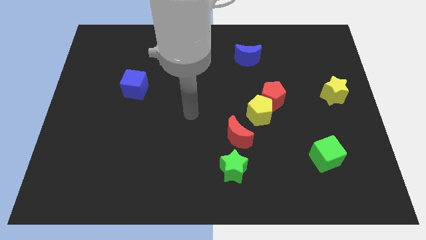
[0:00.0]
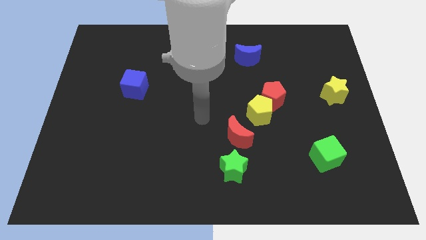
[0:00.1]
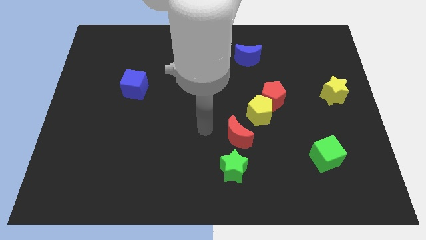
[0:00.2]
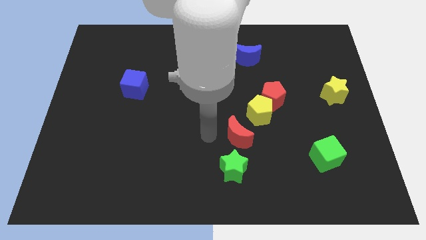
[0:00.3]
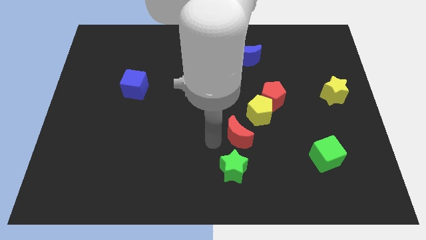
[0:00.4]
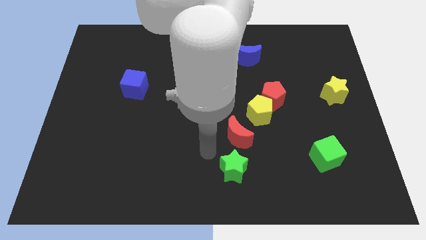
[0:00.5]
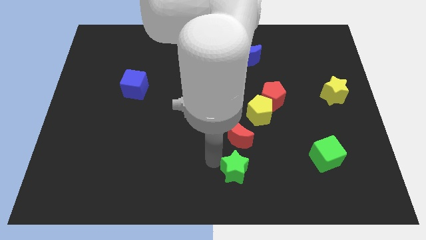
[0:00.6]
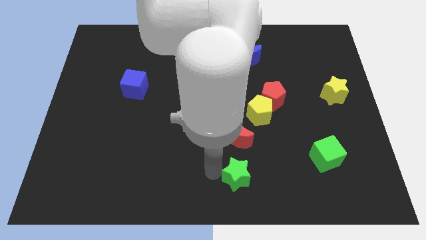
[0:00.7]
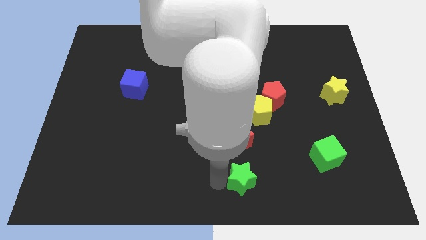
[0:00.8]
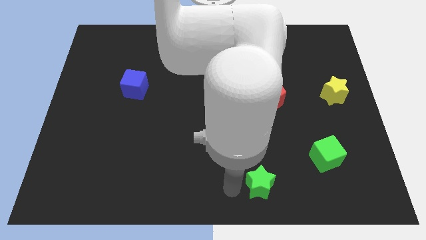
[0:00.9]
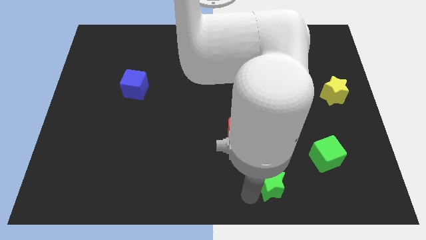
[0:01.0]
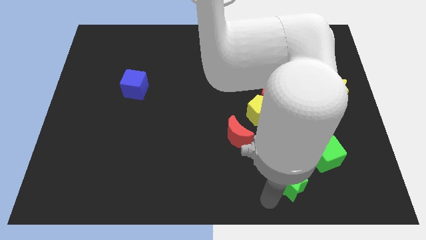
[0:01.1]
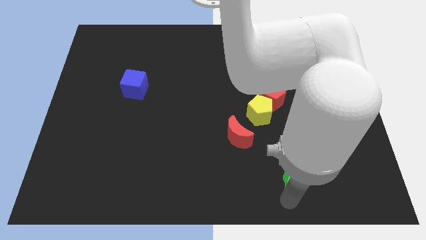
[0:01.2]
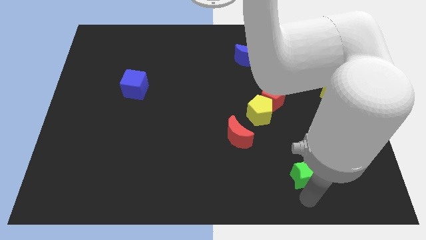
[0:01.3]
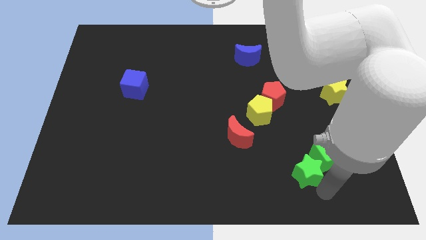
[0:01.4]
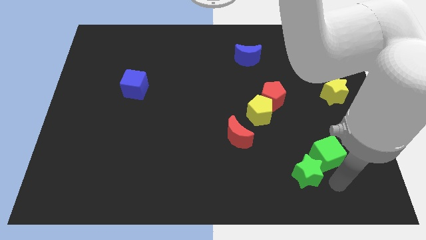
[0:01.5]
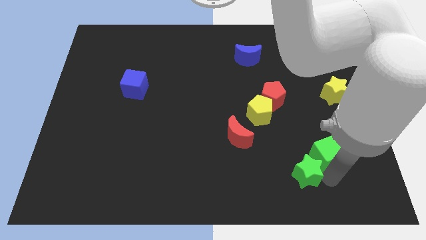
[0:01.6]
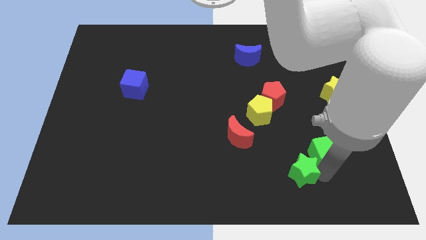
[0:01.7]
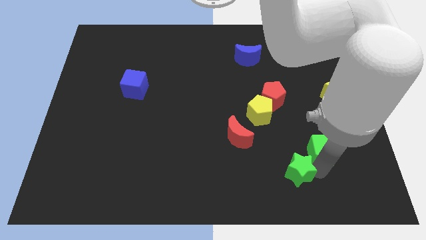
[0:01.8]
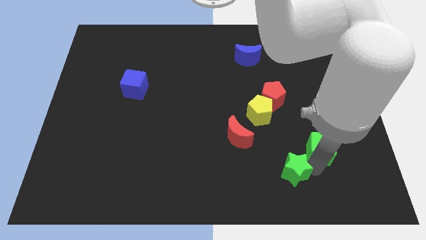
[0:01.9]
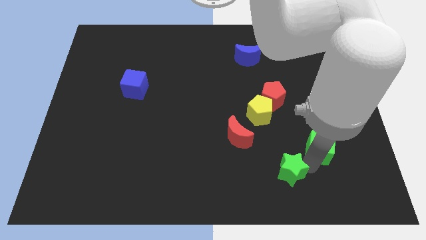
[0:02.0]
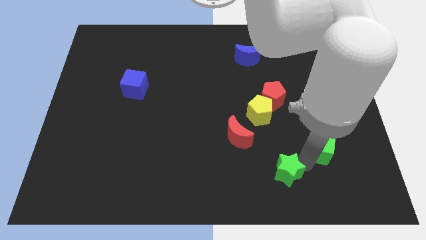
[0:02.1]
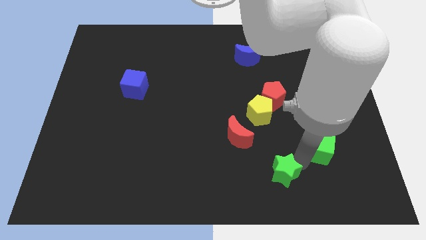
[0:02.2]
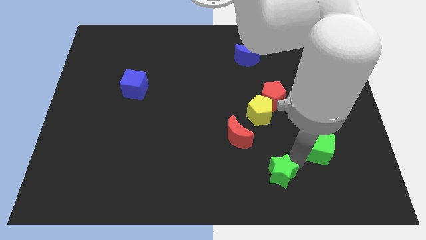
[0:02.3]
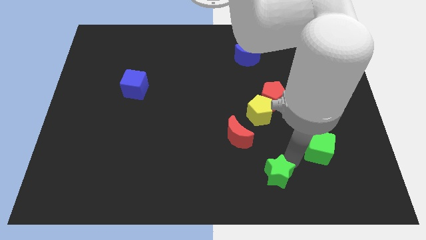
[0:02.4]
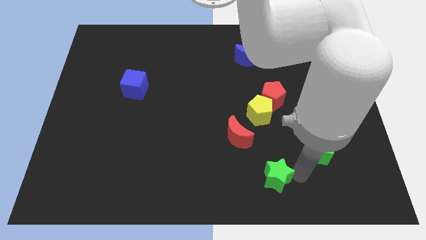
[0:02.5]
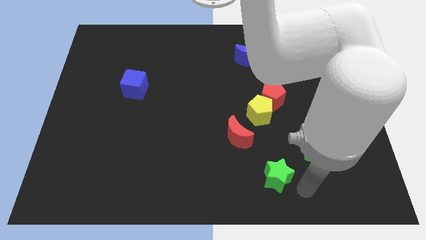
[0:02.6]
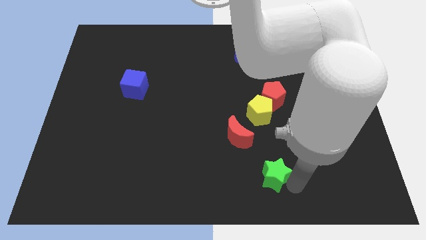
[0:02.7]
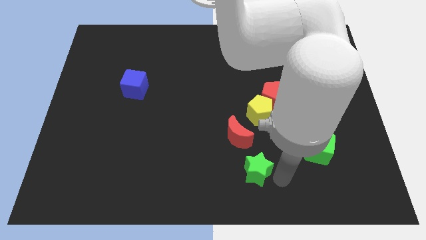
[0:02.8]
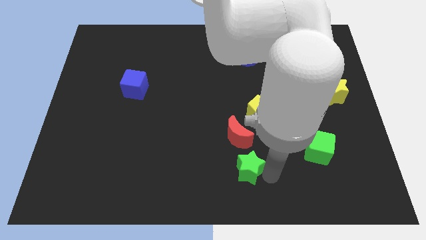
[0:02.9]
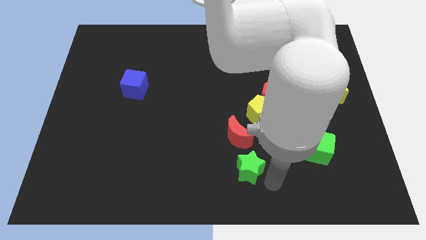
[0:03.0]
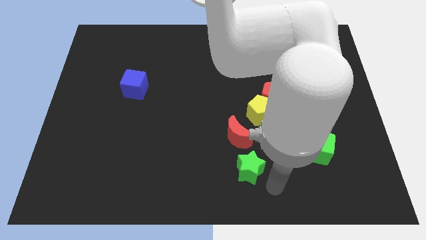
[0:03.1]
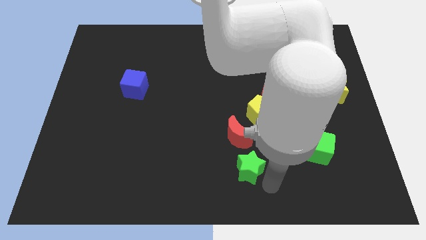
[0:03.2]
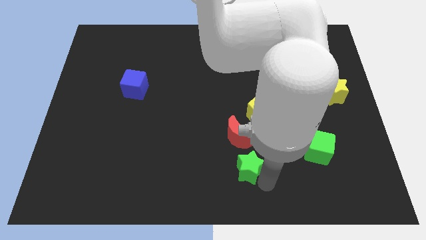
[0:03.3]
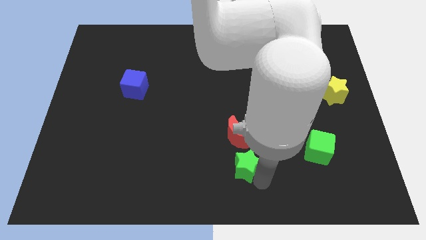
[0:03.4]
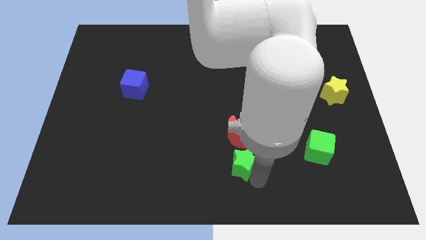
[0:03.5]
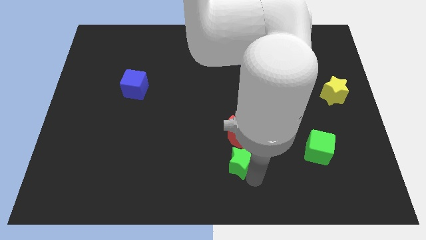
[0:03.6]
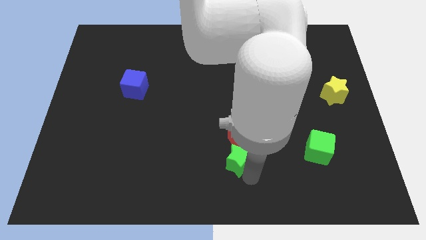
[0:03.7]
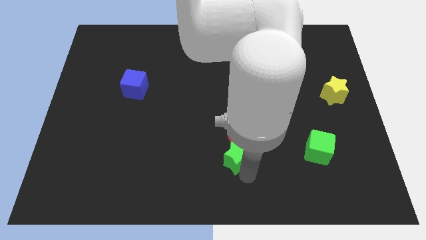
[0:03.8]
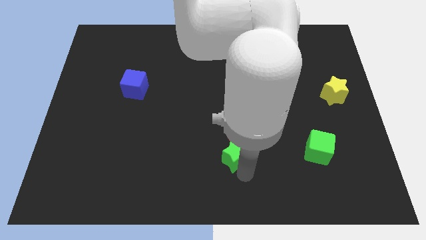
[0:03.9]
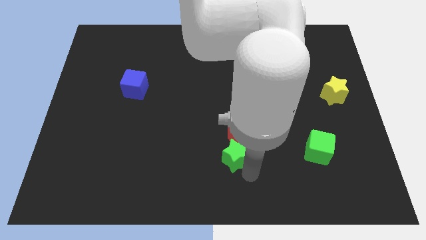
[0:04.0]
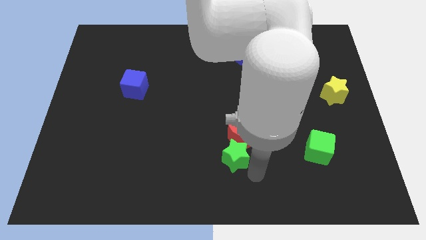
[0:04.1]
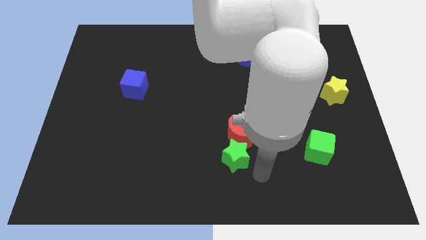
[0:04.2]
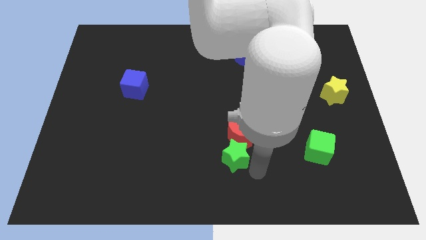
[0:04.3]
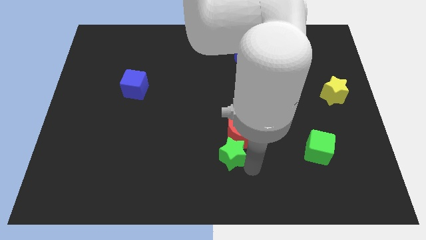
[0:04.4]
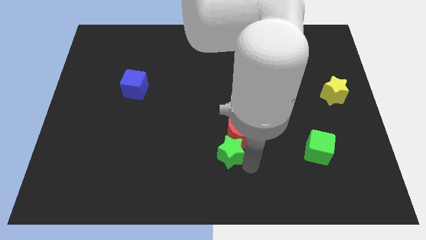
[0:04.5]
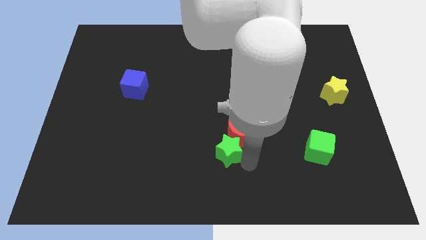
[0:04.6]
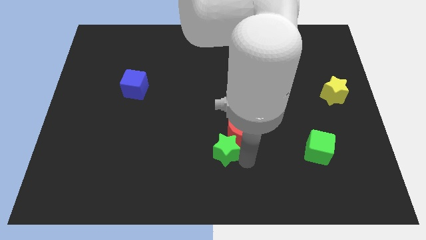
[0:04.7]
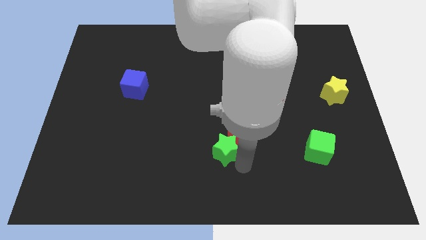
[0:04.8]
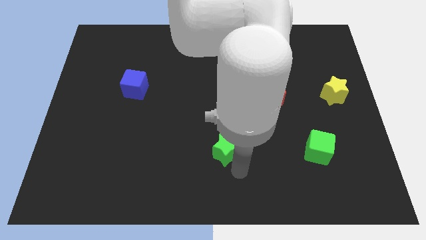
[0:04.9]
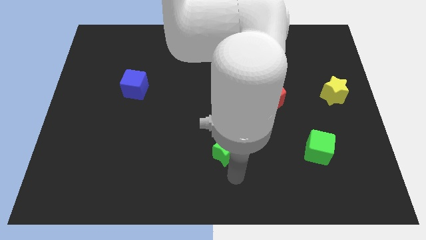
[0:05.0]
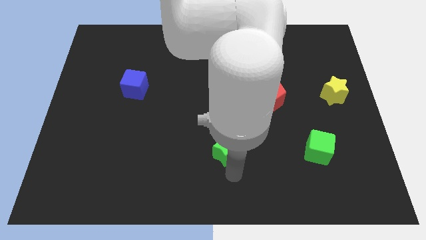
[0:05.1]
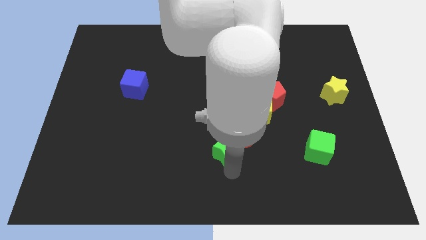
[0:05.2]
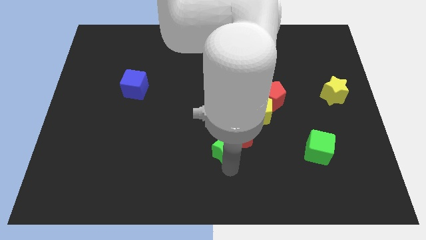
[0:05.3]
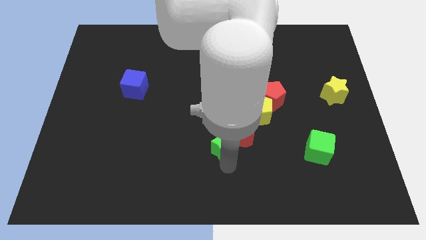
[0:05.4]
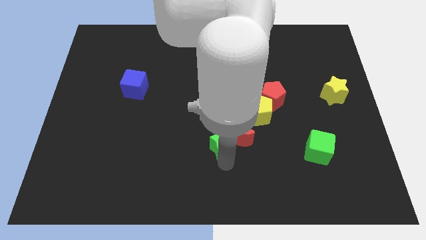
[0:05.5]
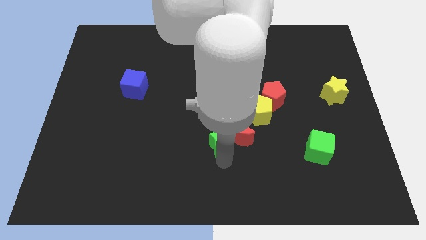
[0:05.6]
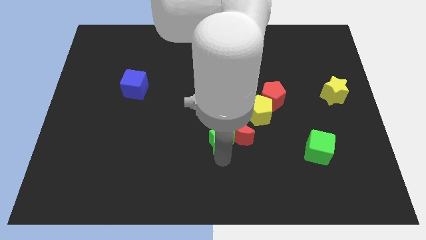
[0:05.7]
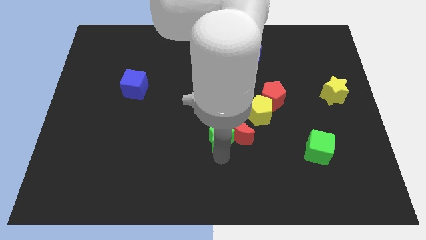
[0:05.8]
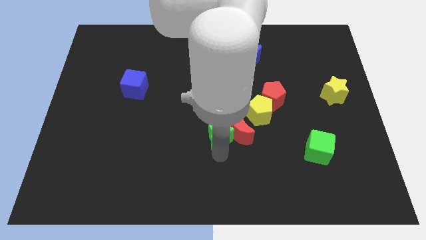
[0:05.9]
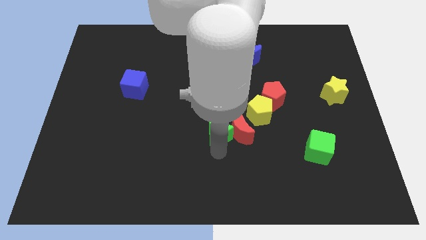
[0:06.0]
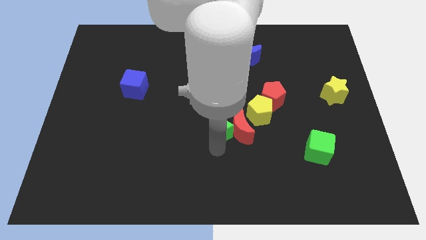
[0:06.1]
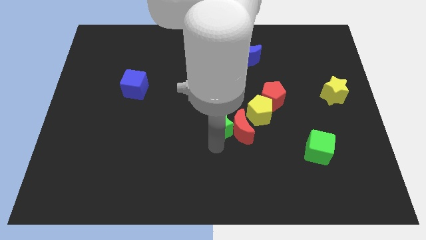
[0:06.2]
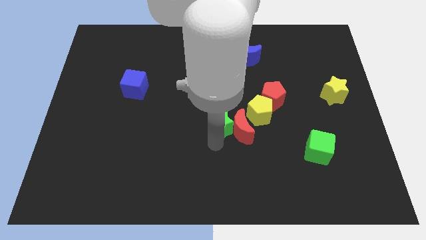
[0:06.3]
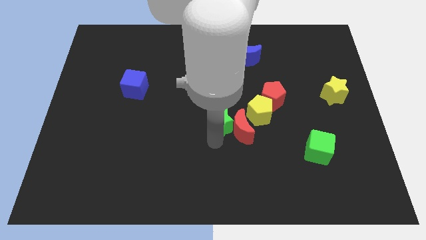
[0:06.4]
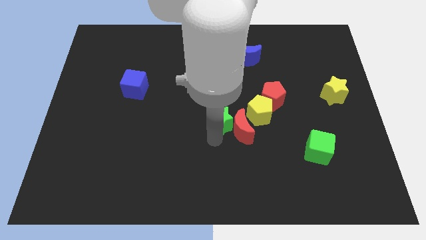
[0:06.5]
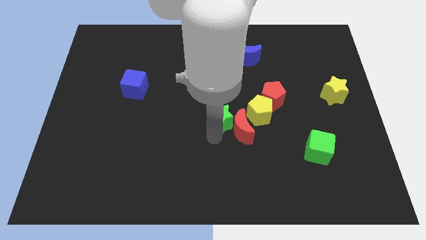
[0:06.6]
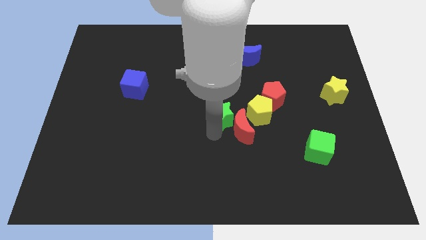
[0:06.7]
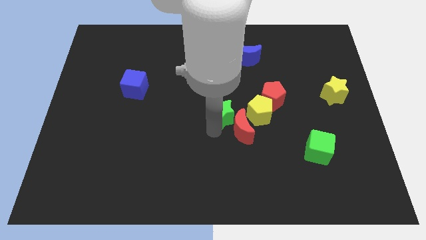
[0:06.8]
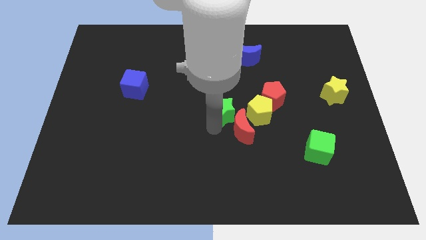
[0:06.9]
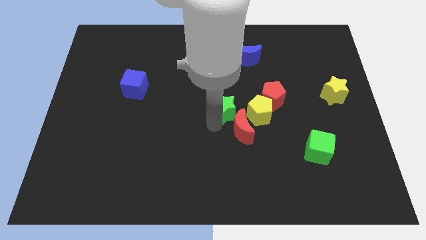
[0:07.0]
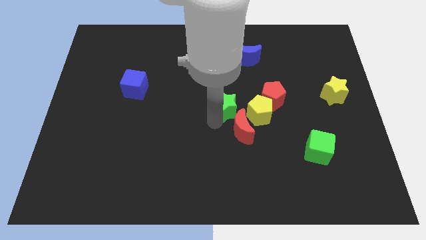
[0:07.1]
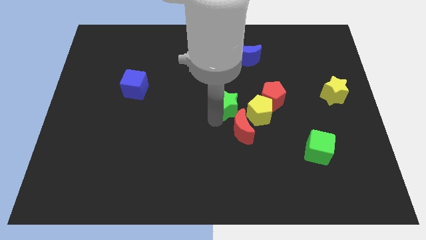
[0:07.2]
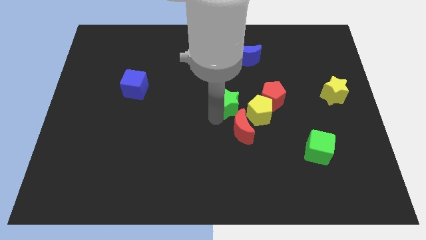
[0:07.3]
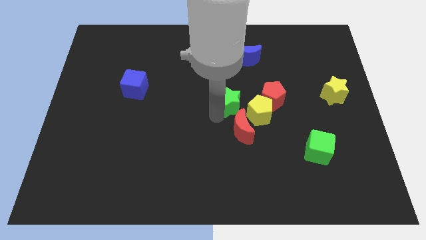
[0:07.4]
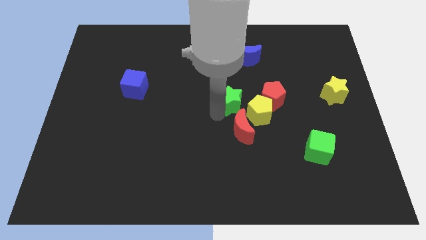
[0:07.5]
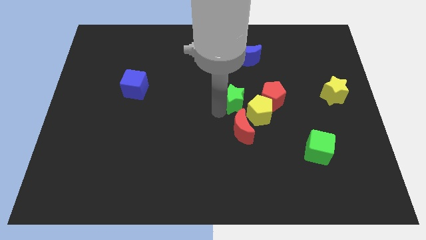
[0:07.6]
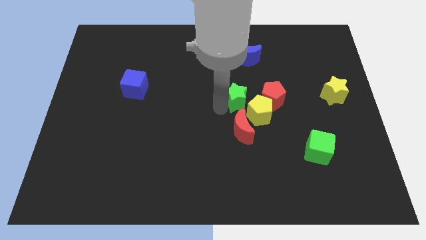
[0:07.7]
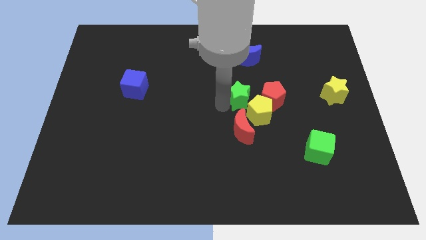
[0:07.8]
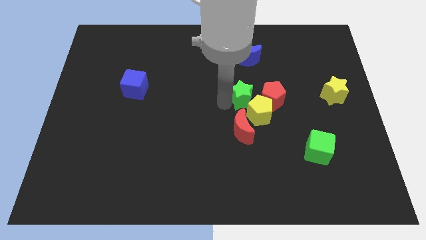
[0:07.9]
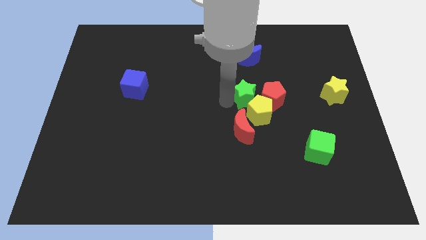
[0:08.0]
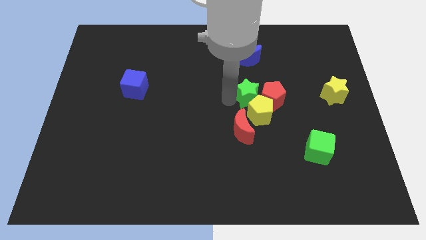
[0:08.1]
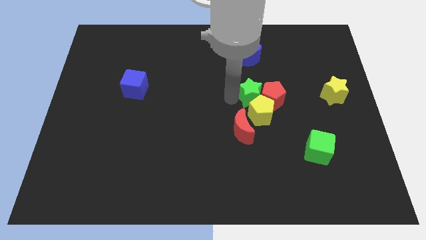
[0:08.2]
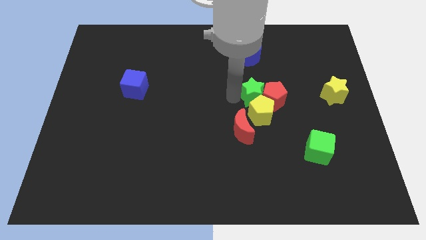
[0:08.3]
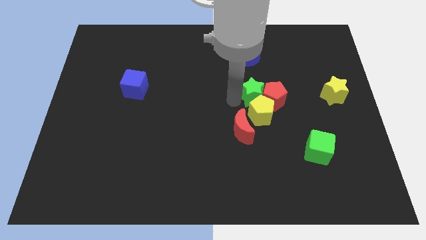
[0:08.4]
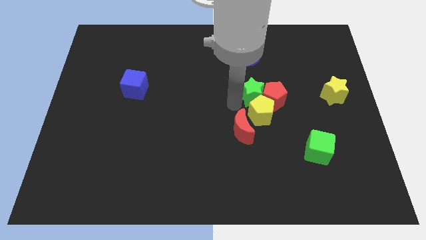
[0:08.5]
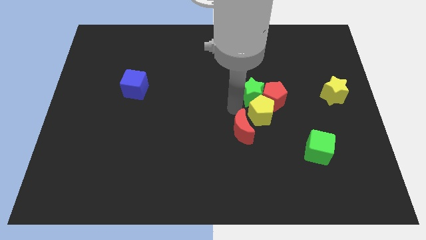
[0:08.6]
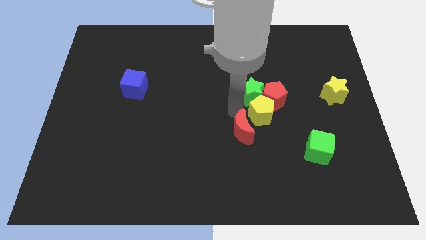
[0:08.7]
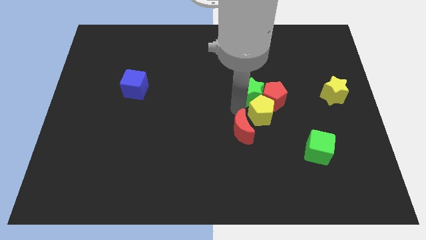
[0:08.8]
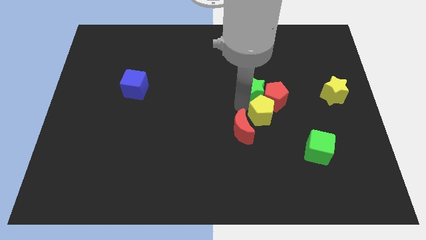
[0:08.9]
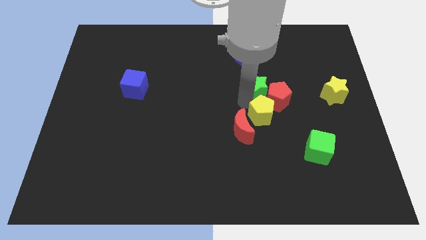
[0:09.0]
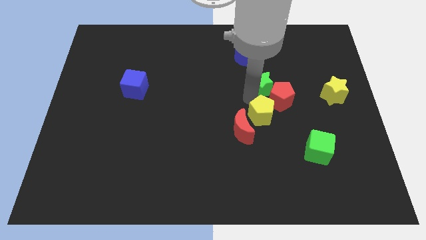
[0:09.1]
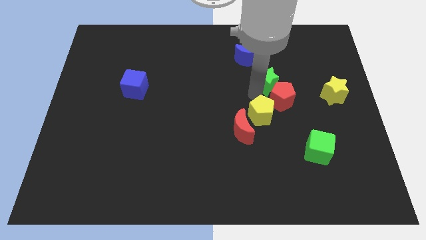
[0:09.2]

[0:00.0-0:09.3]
put the green star to the bottom right side of the blue moon
